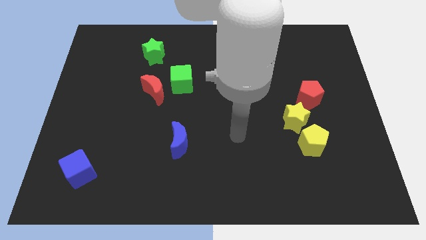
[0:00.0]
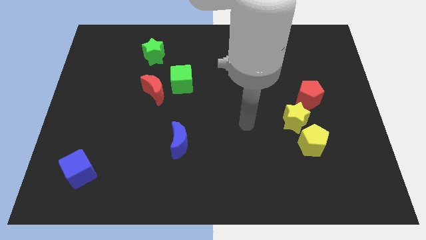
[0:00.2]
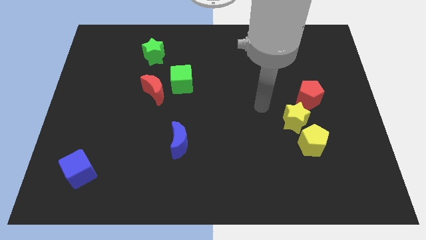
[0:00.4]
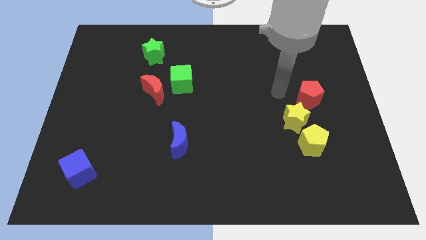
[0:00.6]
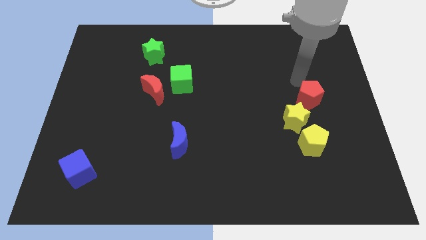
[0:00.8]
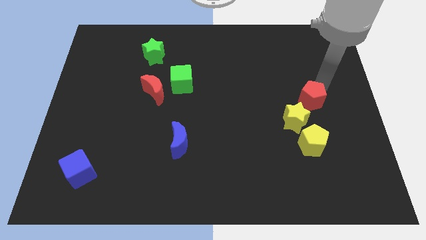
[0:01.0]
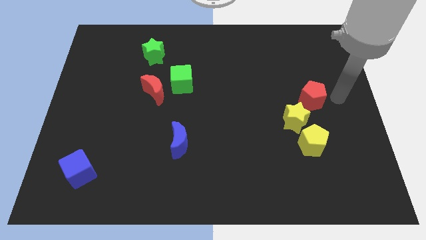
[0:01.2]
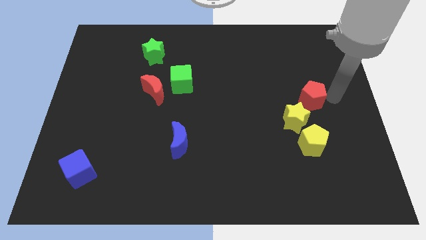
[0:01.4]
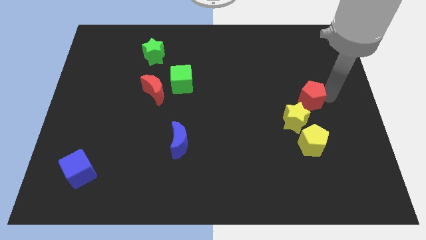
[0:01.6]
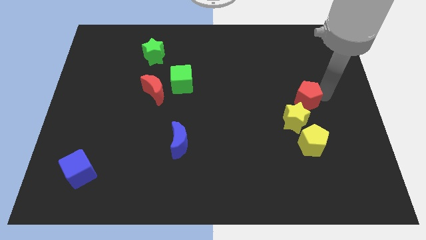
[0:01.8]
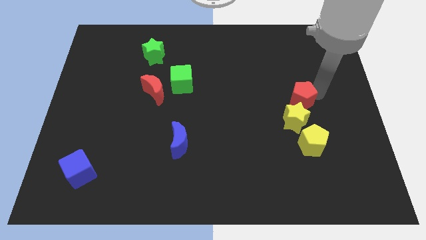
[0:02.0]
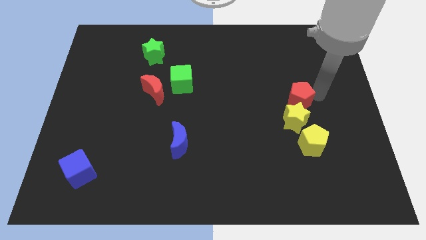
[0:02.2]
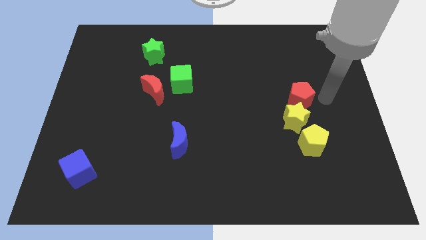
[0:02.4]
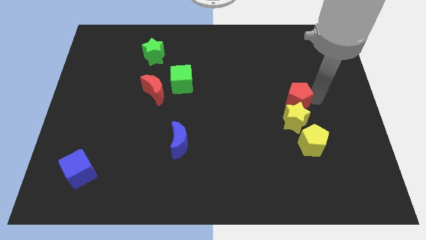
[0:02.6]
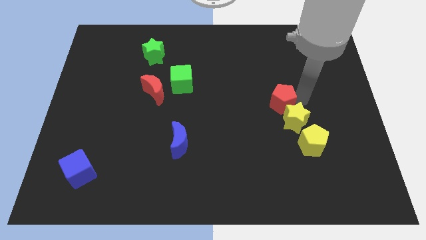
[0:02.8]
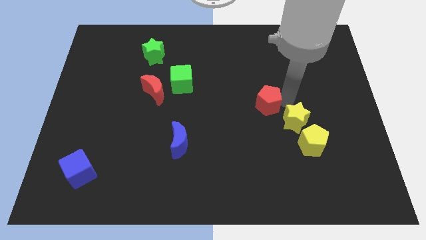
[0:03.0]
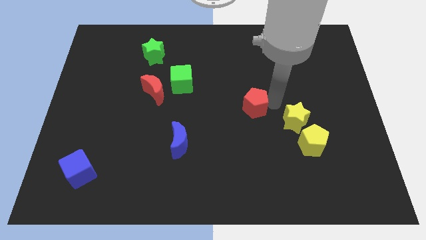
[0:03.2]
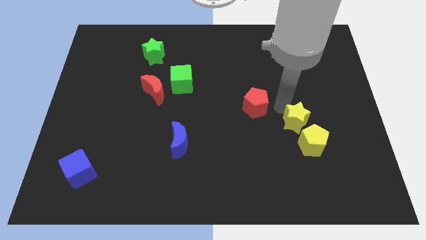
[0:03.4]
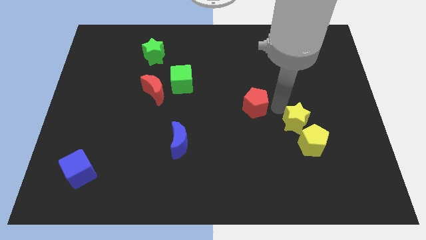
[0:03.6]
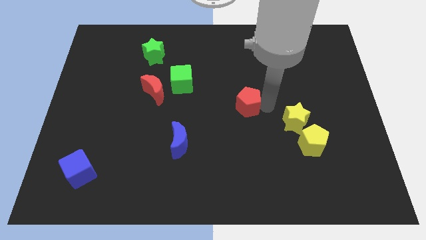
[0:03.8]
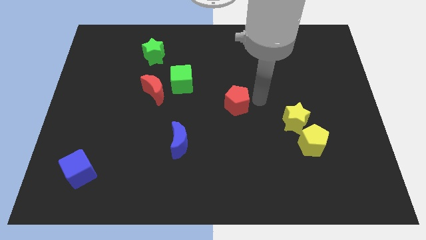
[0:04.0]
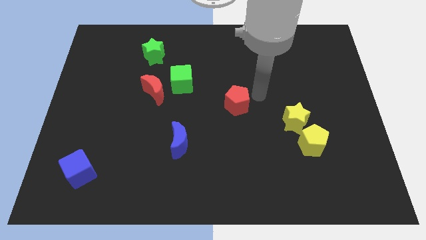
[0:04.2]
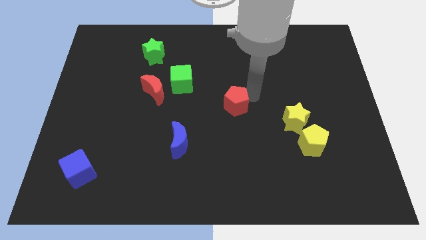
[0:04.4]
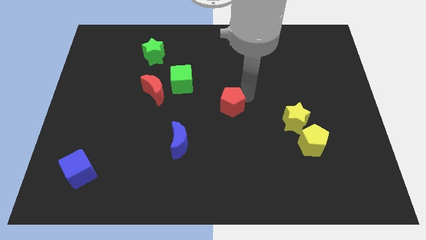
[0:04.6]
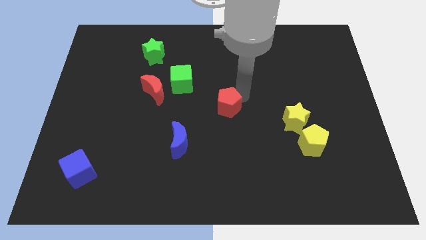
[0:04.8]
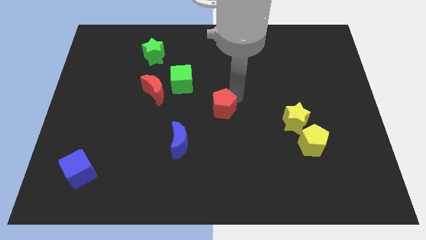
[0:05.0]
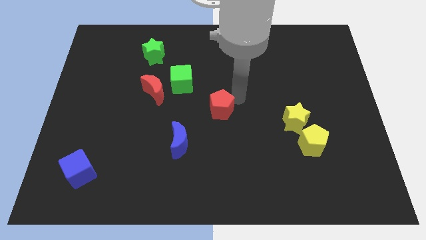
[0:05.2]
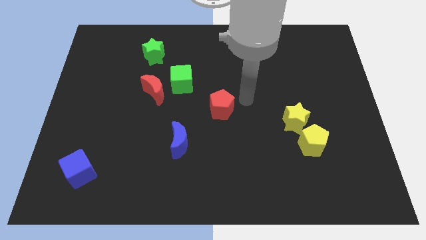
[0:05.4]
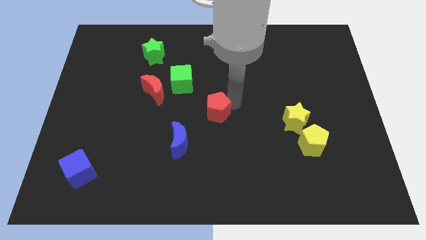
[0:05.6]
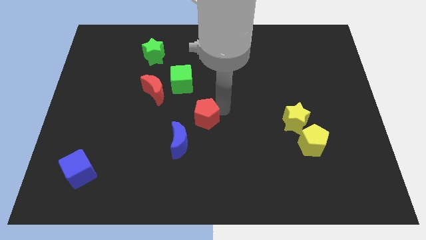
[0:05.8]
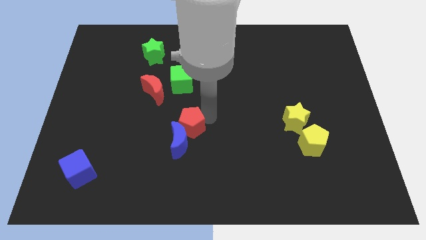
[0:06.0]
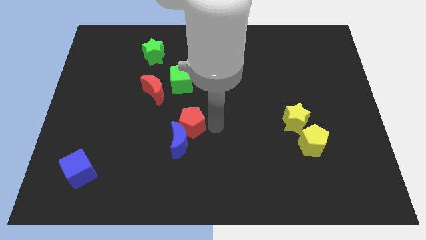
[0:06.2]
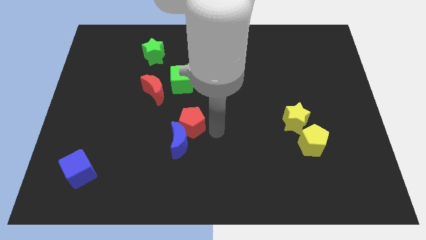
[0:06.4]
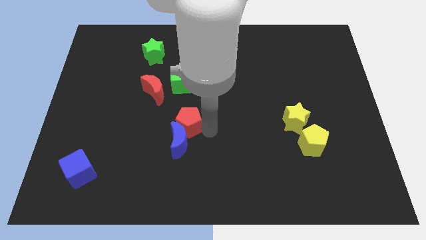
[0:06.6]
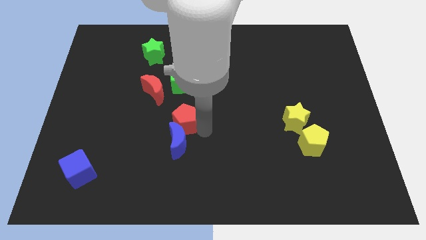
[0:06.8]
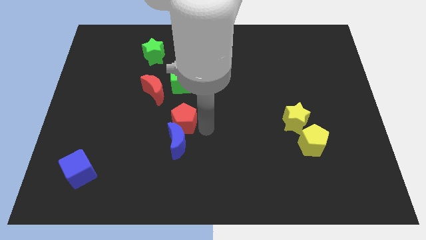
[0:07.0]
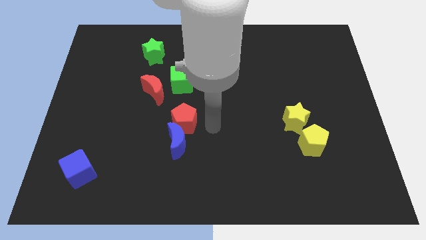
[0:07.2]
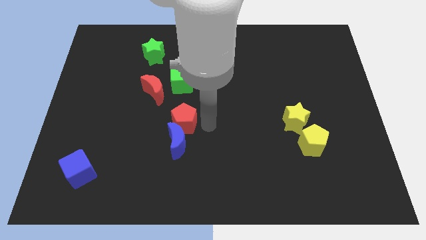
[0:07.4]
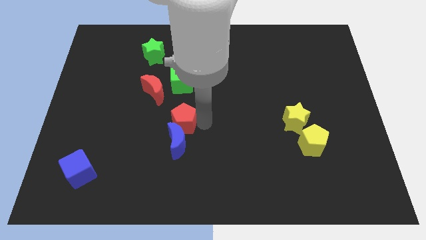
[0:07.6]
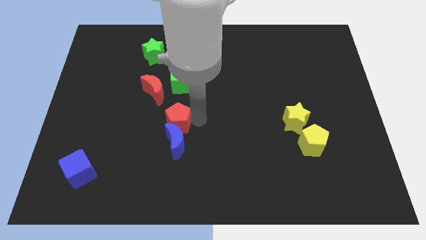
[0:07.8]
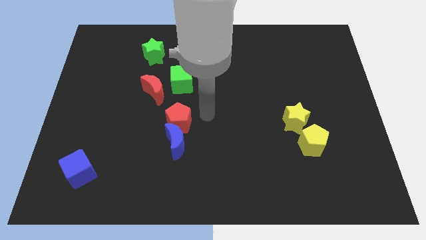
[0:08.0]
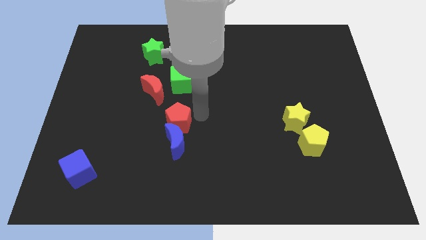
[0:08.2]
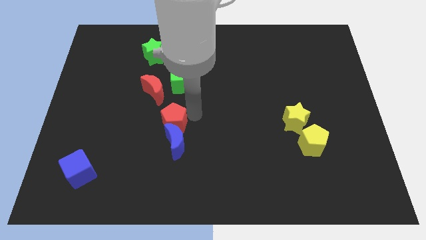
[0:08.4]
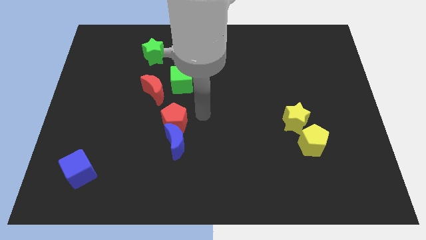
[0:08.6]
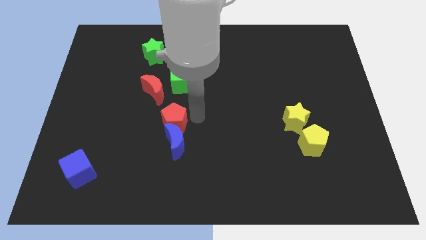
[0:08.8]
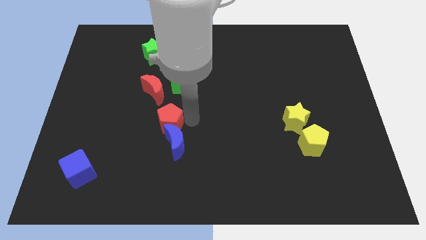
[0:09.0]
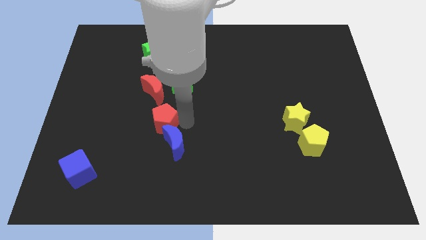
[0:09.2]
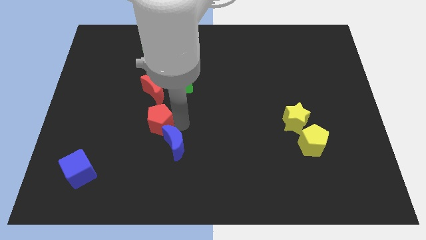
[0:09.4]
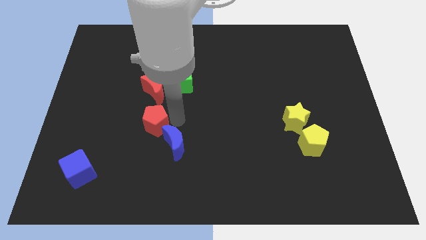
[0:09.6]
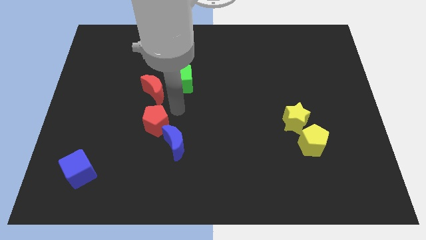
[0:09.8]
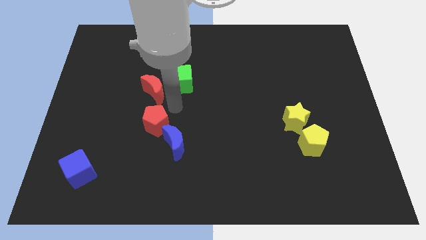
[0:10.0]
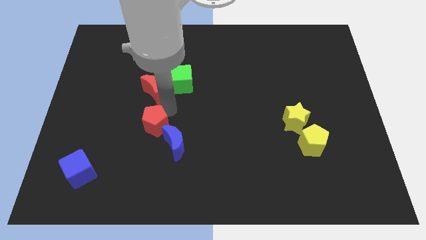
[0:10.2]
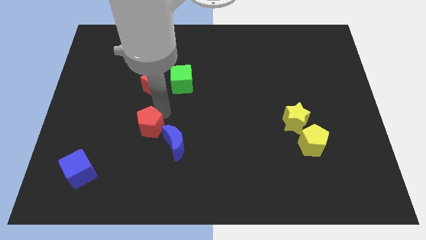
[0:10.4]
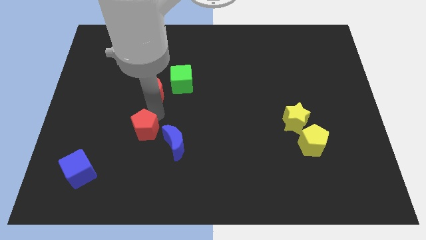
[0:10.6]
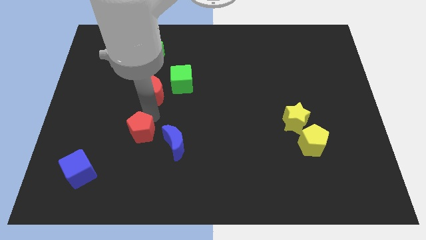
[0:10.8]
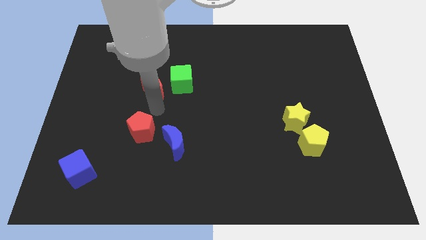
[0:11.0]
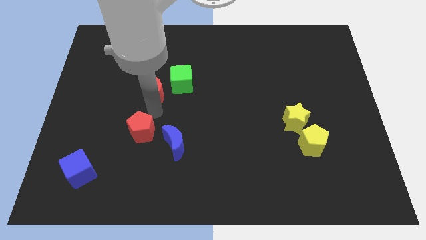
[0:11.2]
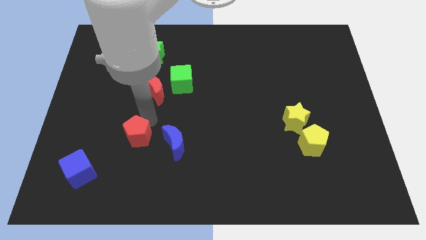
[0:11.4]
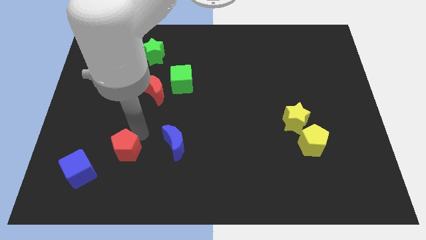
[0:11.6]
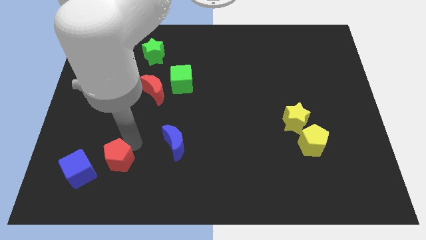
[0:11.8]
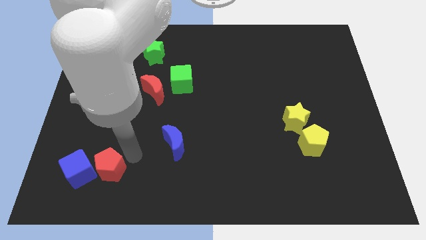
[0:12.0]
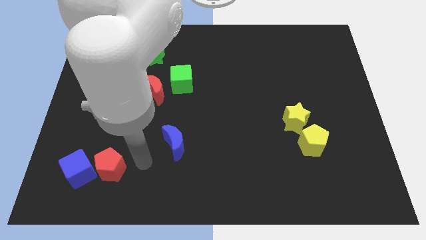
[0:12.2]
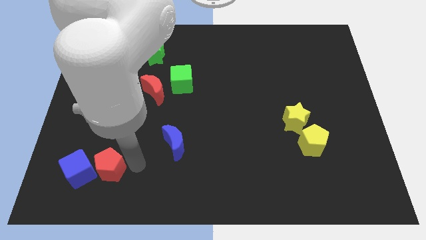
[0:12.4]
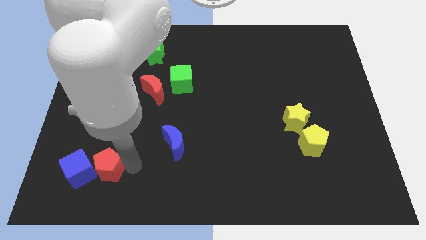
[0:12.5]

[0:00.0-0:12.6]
put the red pentagon close to the blue cube
